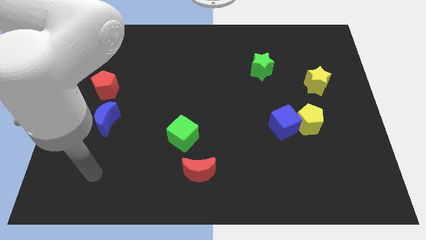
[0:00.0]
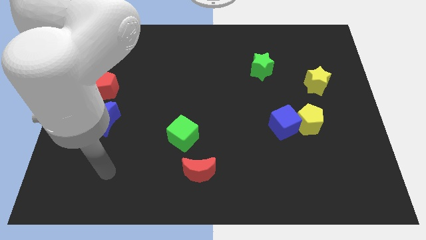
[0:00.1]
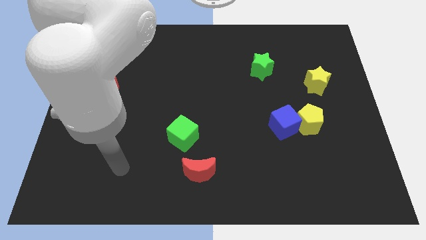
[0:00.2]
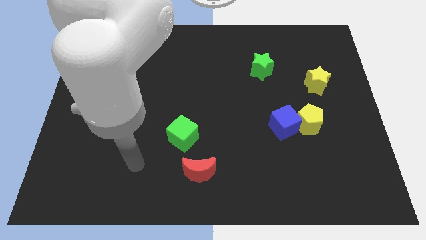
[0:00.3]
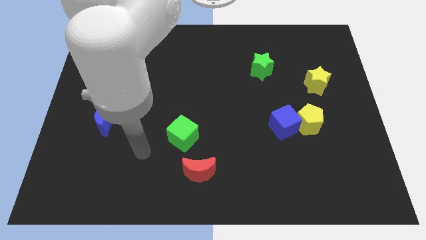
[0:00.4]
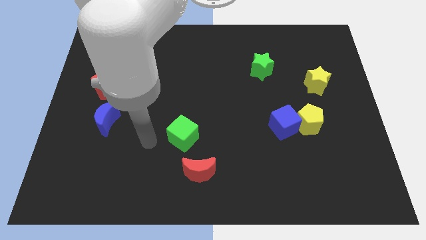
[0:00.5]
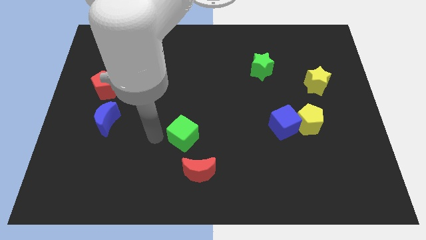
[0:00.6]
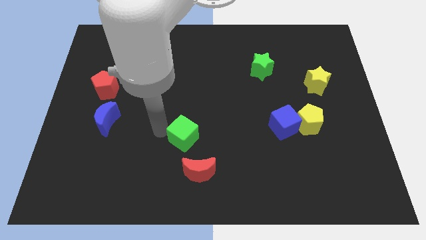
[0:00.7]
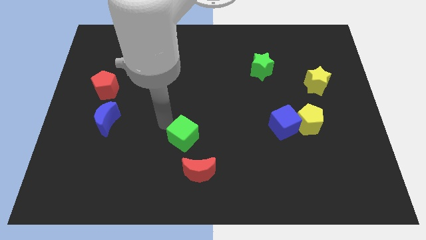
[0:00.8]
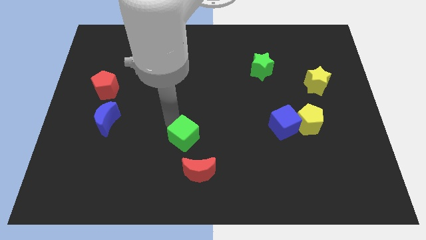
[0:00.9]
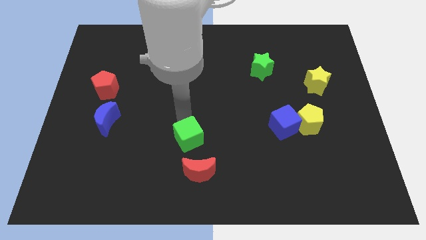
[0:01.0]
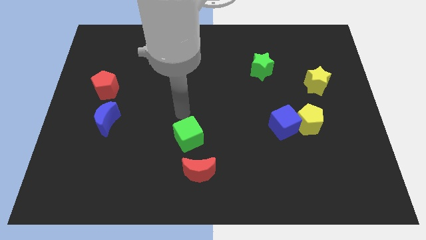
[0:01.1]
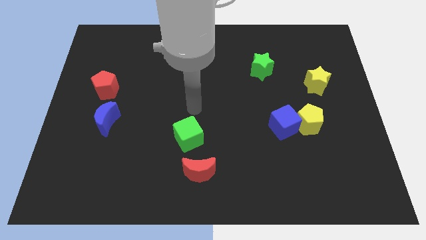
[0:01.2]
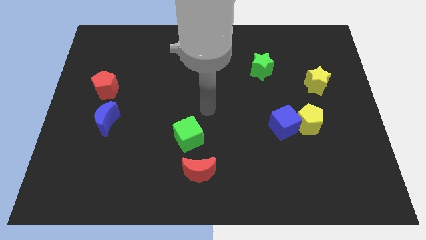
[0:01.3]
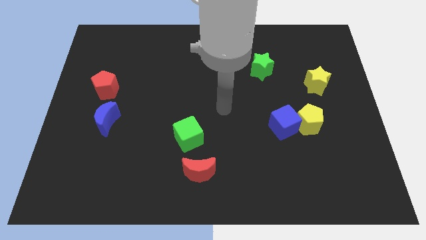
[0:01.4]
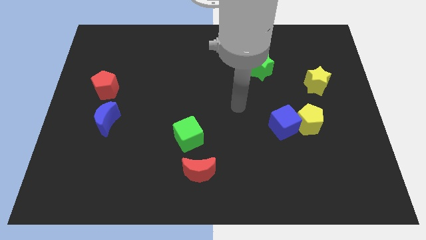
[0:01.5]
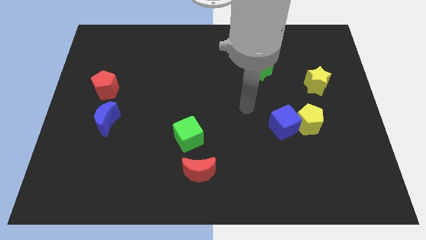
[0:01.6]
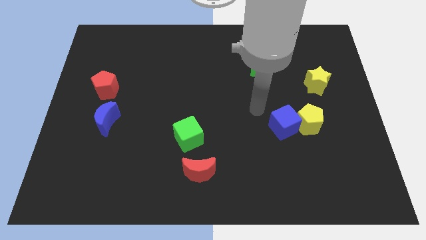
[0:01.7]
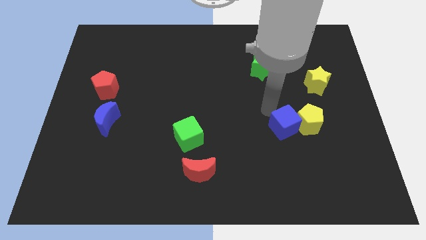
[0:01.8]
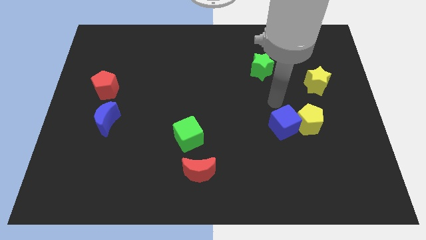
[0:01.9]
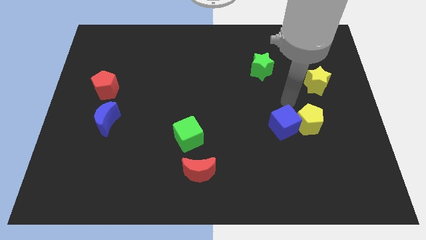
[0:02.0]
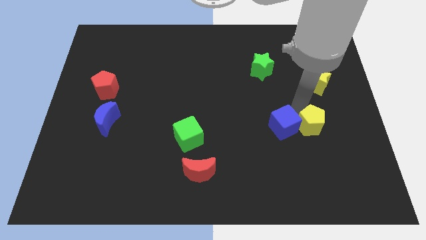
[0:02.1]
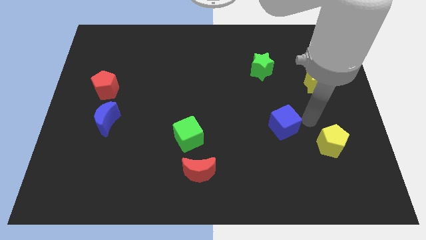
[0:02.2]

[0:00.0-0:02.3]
pull the blue cube apart from the yellow pentagon

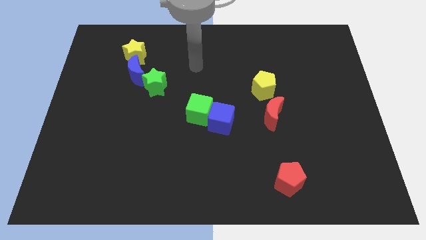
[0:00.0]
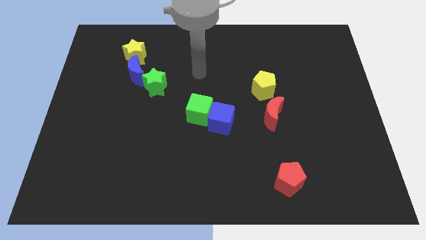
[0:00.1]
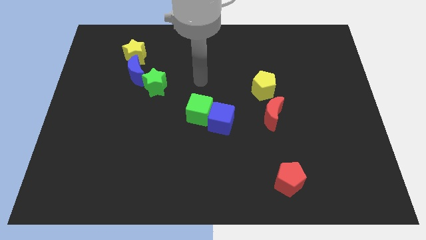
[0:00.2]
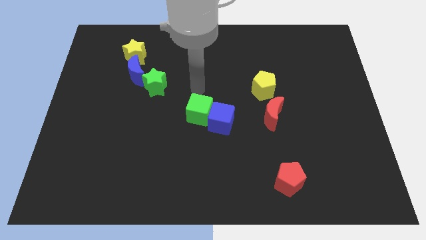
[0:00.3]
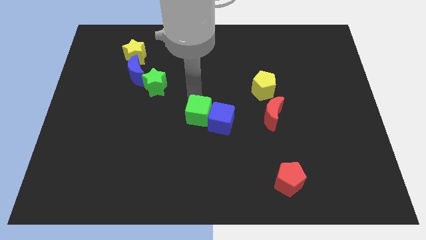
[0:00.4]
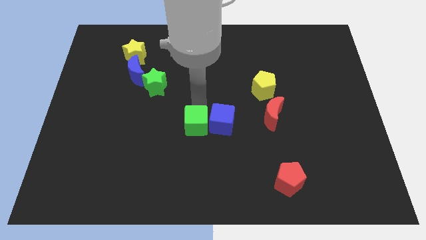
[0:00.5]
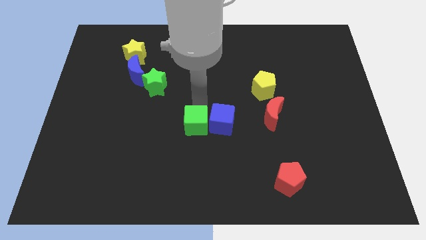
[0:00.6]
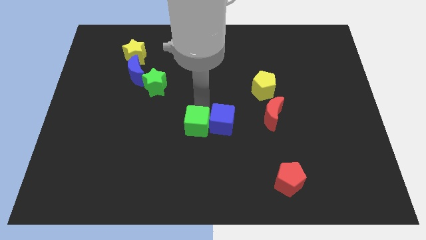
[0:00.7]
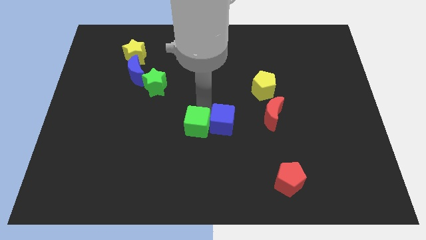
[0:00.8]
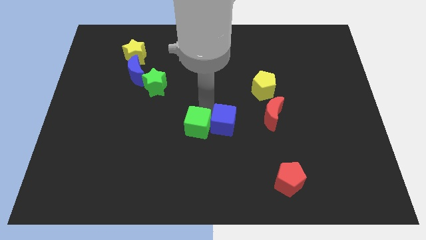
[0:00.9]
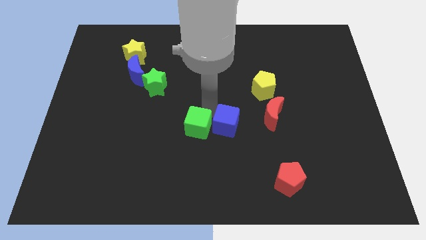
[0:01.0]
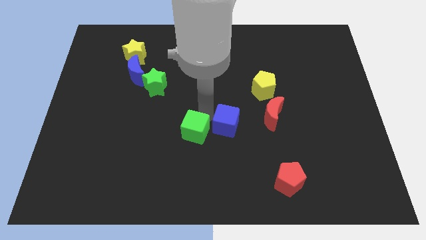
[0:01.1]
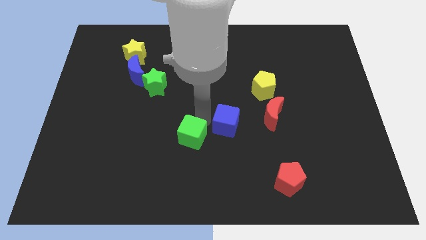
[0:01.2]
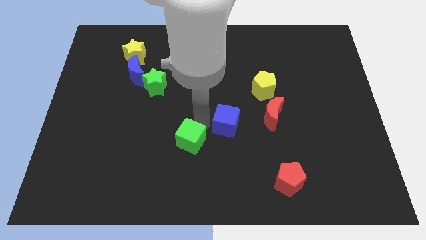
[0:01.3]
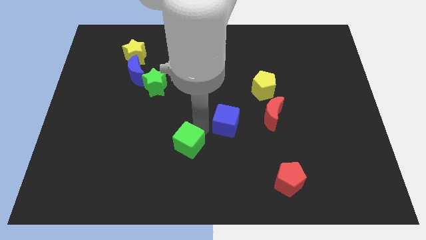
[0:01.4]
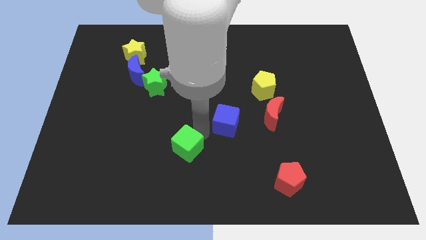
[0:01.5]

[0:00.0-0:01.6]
move the blue cube away from the green cube

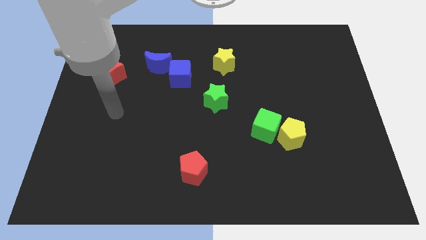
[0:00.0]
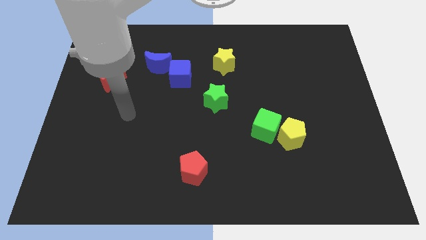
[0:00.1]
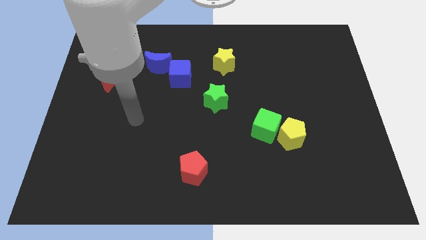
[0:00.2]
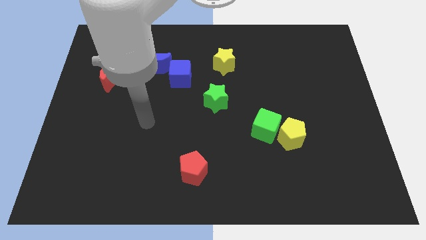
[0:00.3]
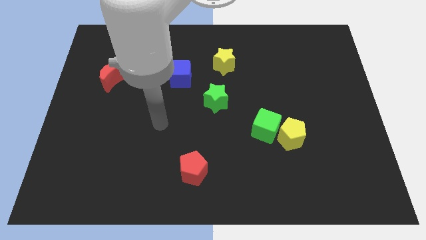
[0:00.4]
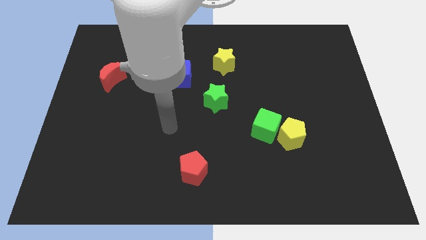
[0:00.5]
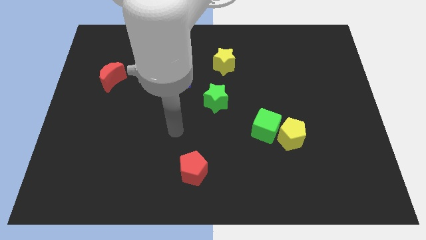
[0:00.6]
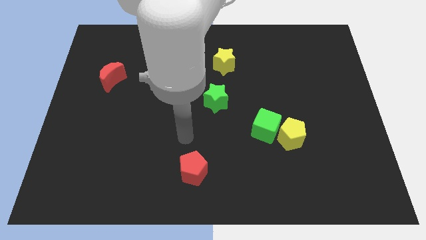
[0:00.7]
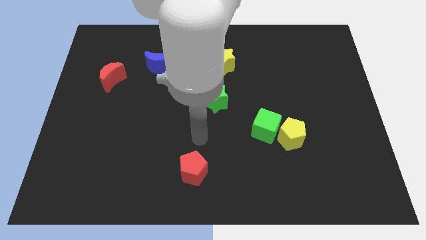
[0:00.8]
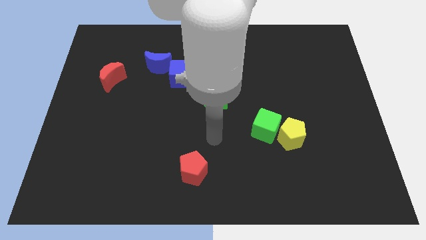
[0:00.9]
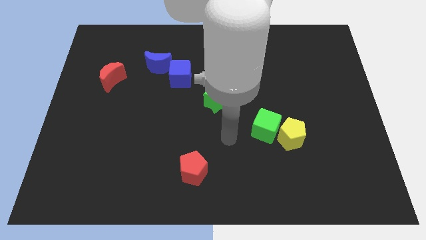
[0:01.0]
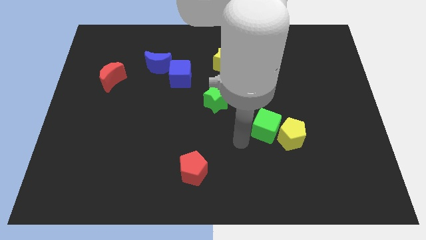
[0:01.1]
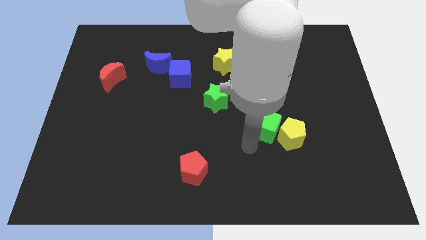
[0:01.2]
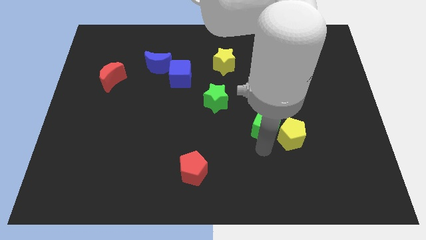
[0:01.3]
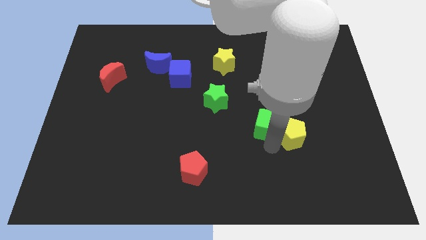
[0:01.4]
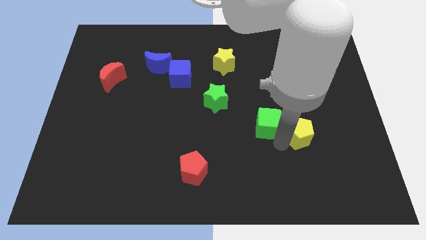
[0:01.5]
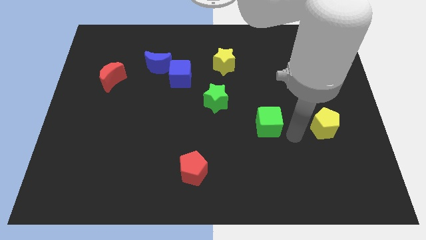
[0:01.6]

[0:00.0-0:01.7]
pull the green cube apart from the yellow pentagon

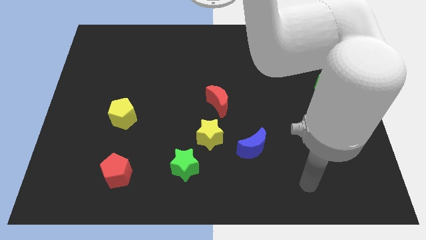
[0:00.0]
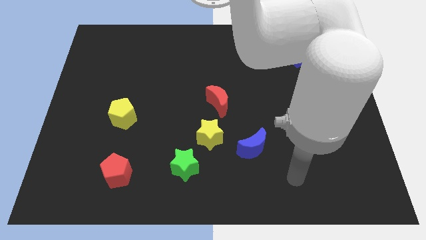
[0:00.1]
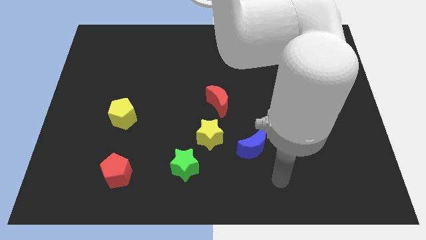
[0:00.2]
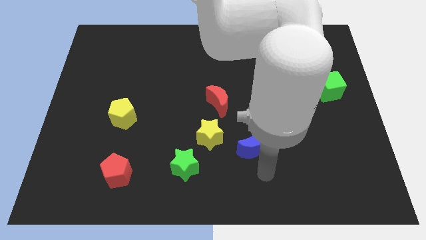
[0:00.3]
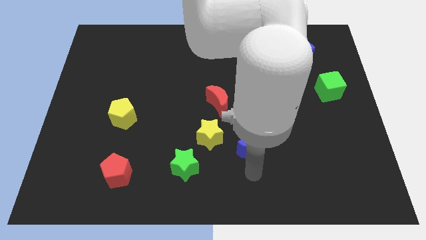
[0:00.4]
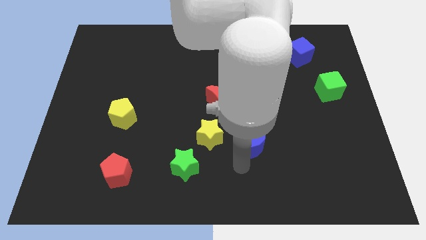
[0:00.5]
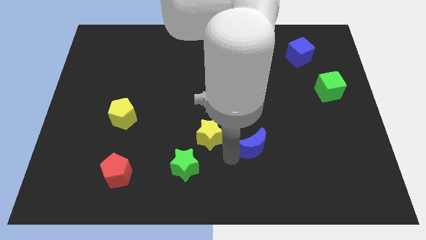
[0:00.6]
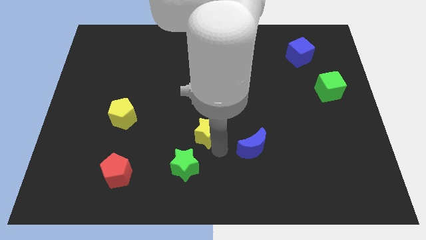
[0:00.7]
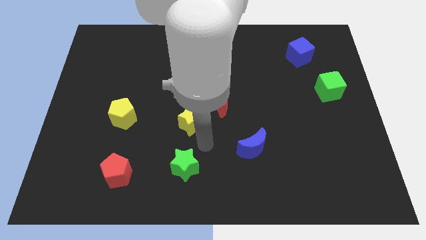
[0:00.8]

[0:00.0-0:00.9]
separate the green star from the yellow star

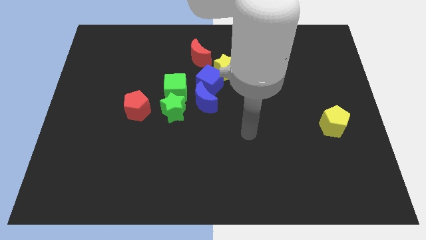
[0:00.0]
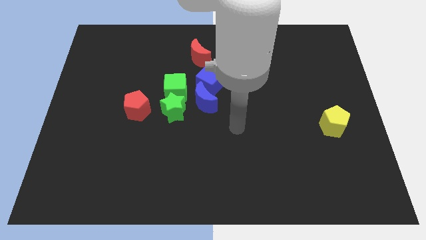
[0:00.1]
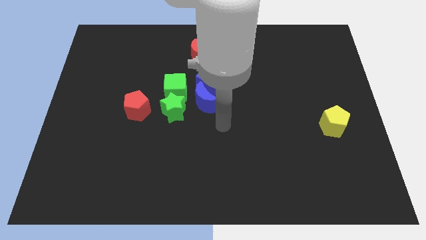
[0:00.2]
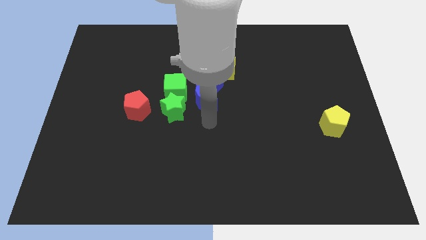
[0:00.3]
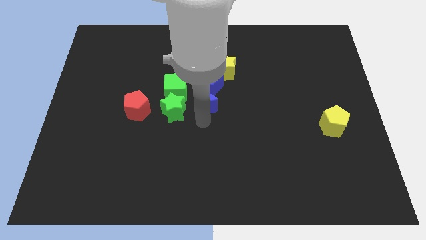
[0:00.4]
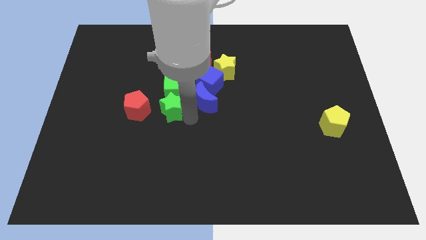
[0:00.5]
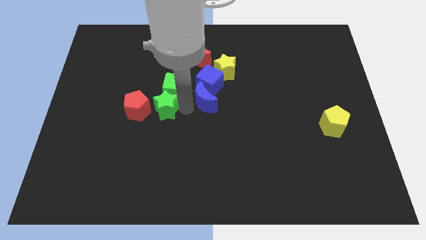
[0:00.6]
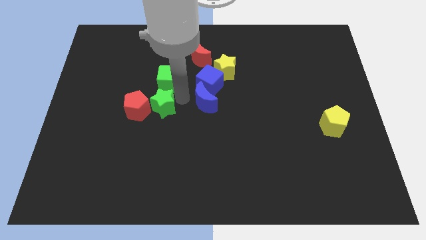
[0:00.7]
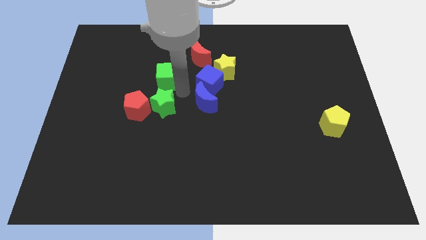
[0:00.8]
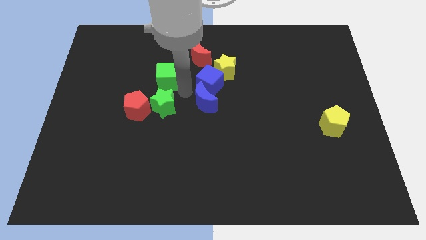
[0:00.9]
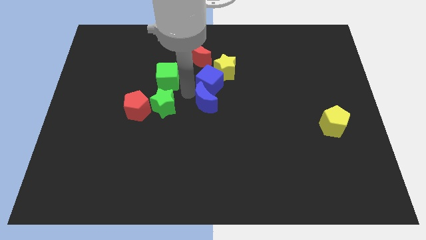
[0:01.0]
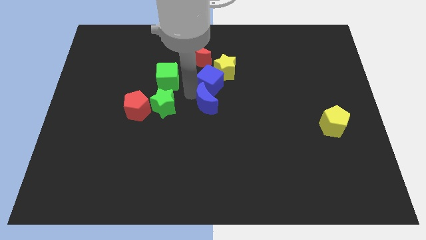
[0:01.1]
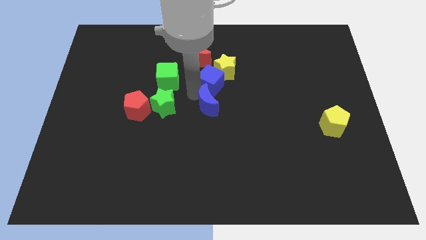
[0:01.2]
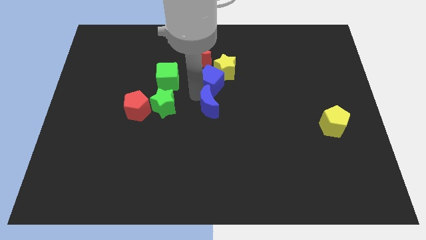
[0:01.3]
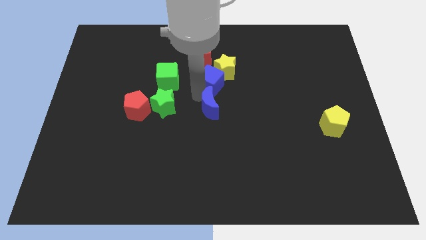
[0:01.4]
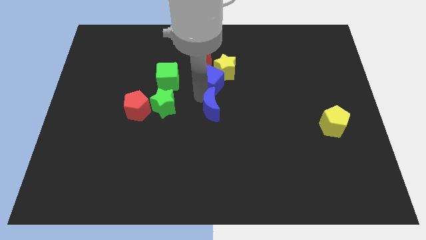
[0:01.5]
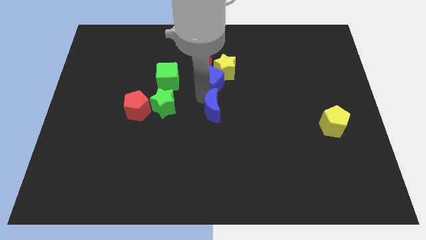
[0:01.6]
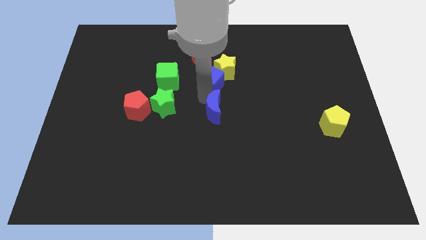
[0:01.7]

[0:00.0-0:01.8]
move the blue moon away from the blue cube, green star, and green cube

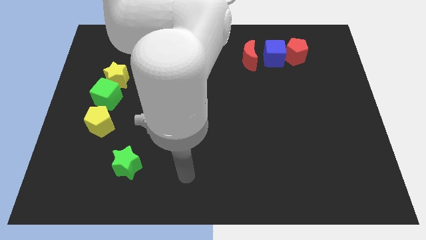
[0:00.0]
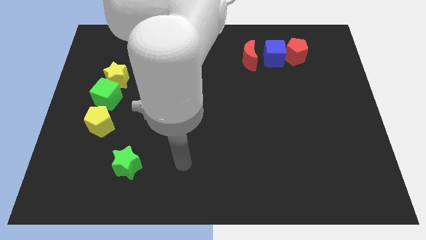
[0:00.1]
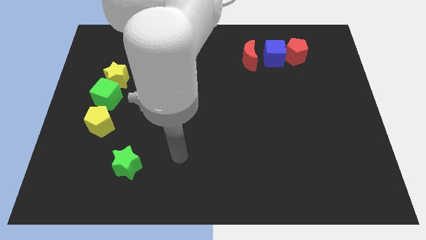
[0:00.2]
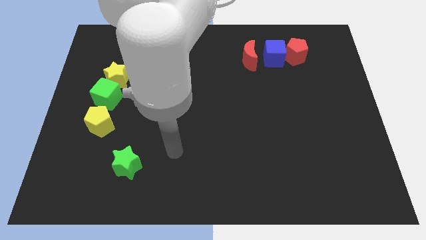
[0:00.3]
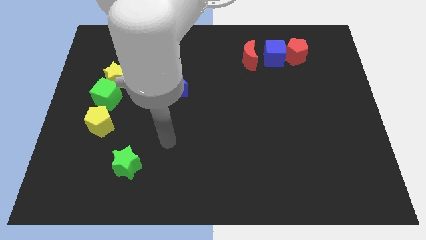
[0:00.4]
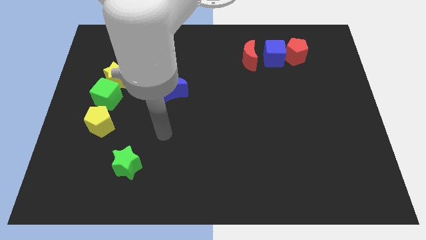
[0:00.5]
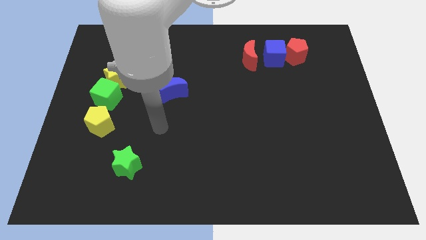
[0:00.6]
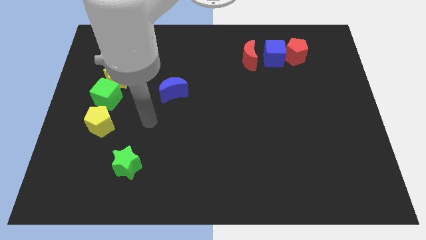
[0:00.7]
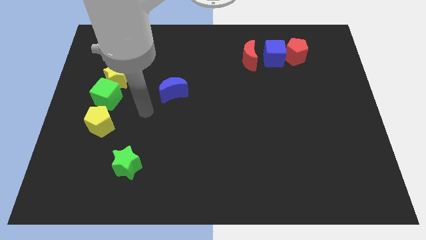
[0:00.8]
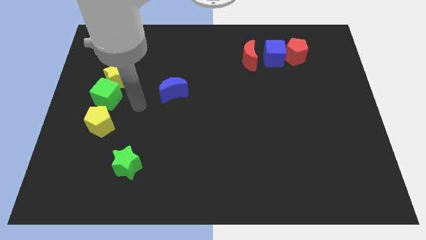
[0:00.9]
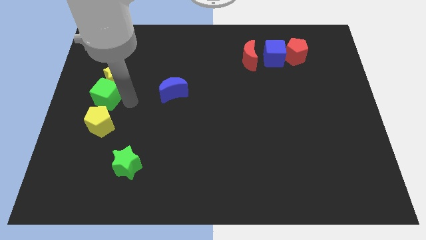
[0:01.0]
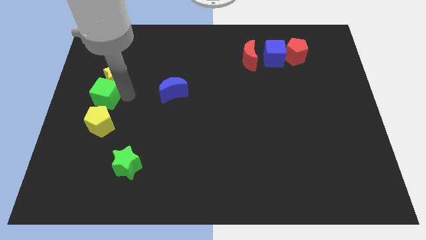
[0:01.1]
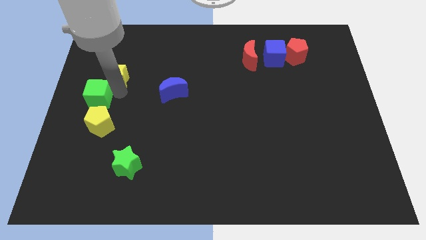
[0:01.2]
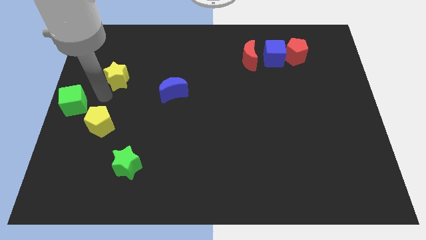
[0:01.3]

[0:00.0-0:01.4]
separate the yellow star from the green cube
